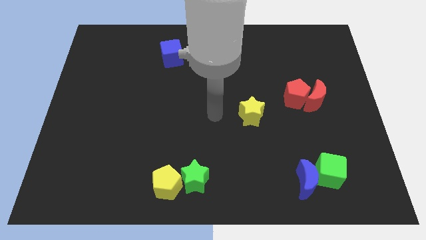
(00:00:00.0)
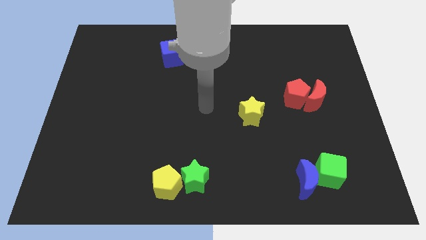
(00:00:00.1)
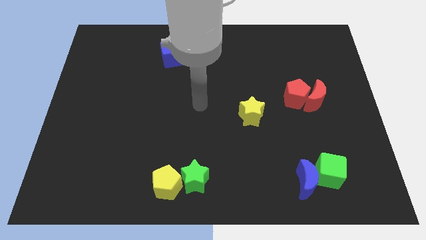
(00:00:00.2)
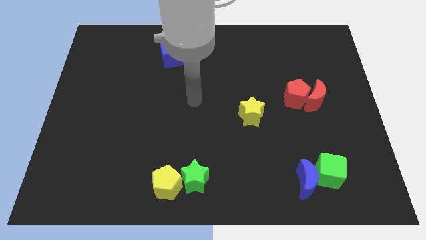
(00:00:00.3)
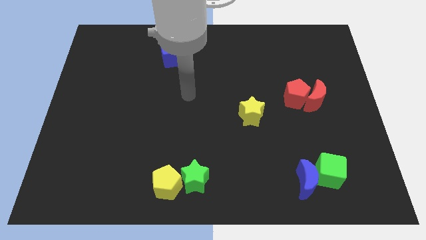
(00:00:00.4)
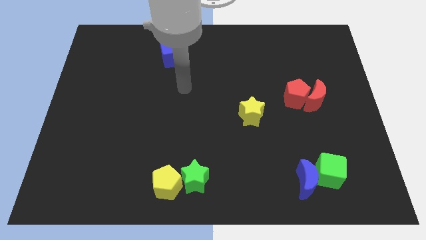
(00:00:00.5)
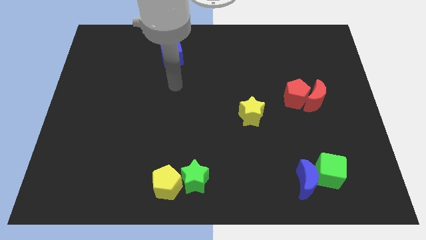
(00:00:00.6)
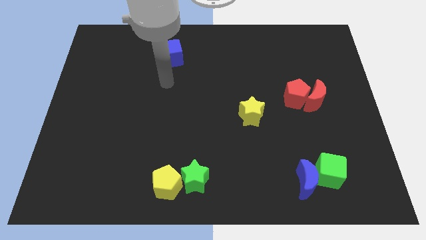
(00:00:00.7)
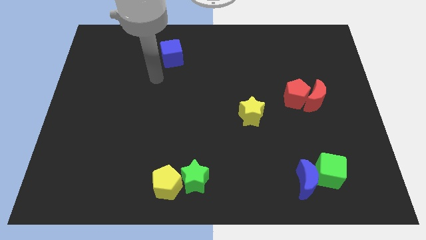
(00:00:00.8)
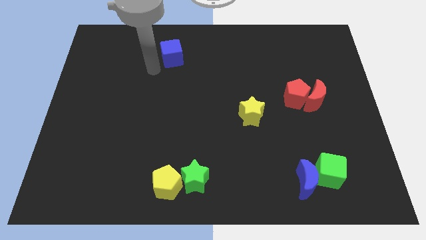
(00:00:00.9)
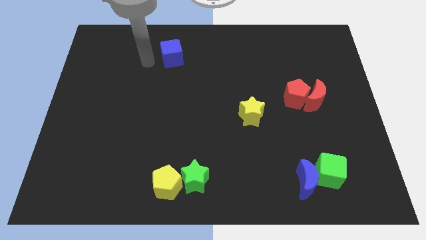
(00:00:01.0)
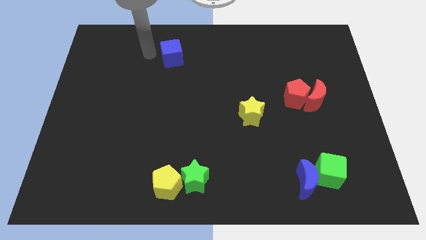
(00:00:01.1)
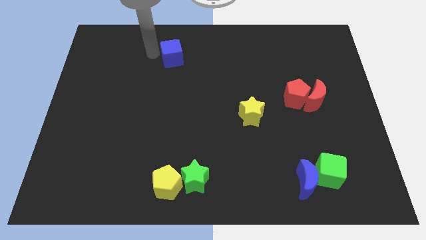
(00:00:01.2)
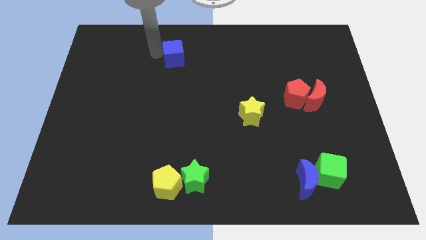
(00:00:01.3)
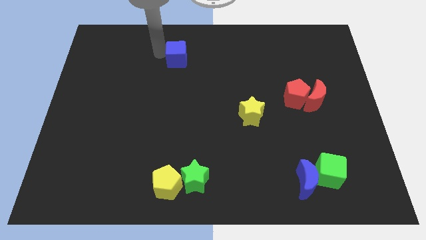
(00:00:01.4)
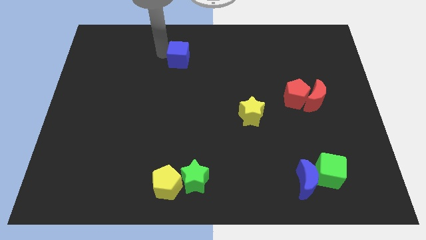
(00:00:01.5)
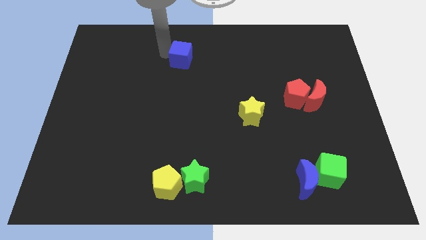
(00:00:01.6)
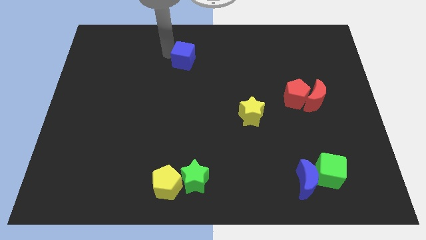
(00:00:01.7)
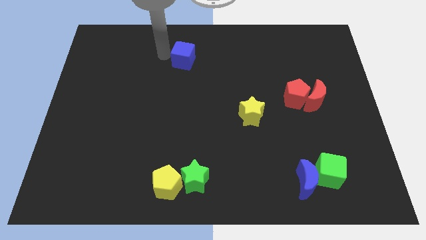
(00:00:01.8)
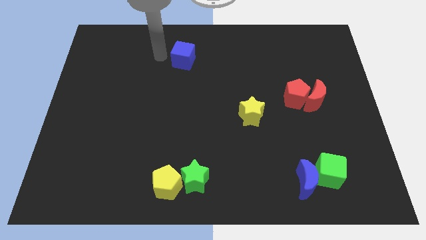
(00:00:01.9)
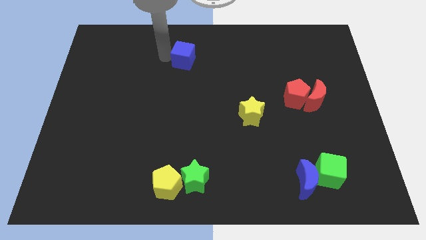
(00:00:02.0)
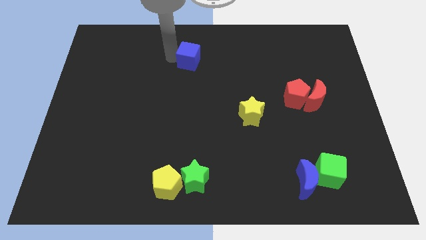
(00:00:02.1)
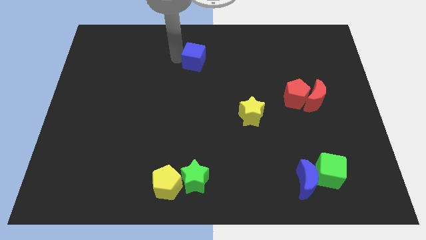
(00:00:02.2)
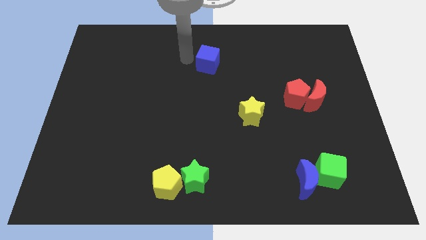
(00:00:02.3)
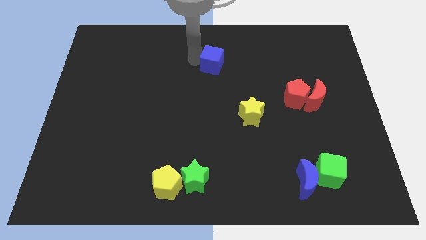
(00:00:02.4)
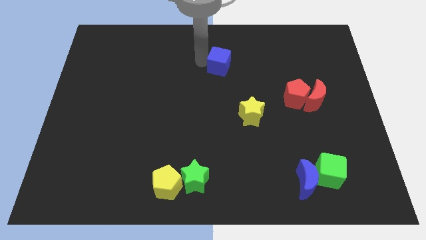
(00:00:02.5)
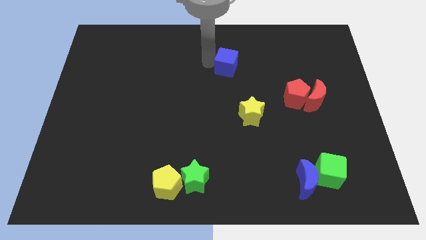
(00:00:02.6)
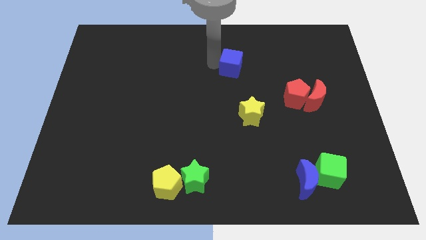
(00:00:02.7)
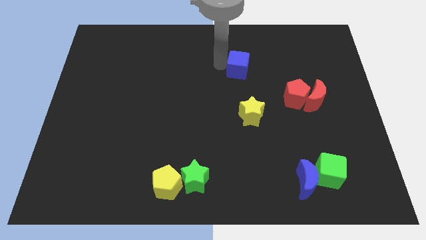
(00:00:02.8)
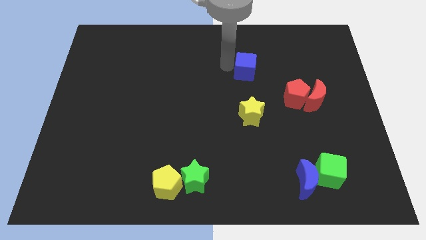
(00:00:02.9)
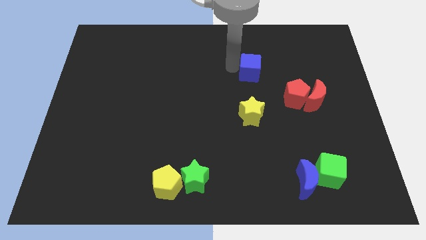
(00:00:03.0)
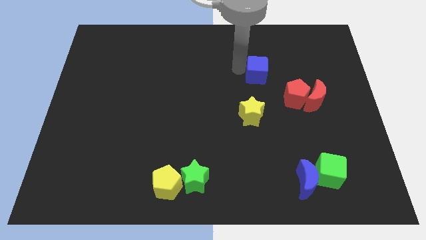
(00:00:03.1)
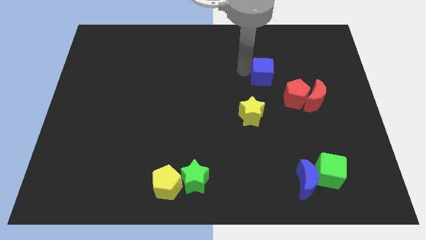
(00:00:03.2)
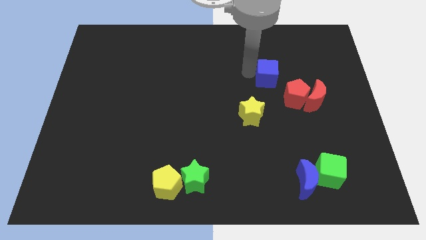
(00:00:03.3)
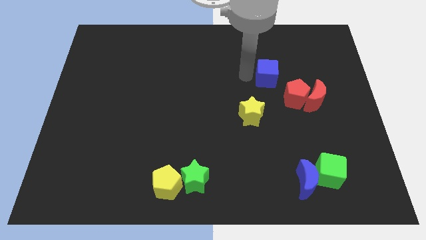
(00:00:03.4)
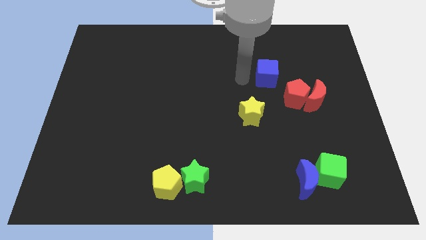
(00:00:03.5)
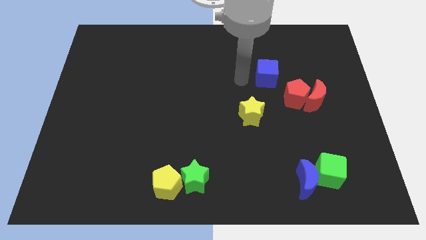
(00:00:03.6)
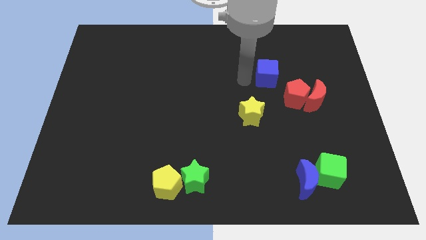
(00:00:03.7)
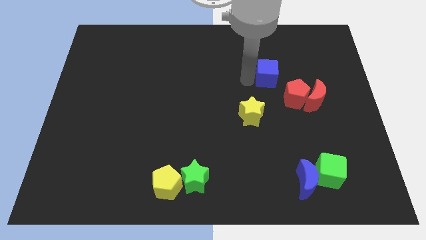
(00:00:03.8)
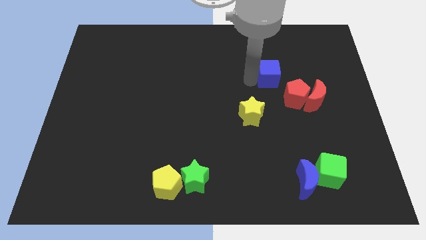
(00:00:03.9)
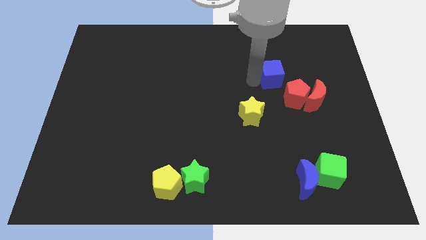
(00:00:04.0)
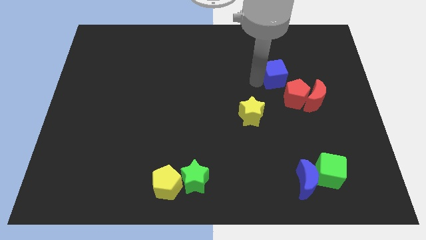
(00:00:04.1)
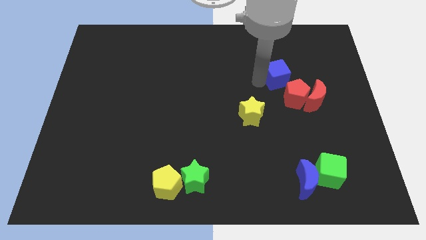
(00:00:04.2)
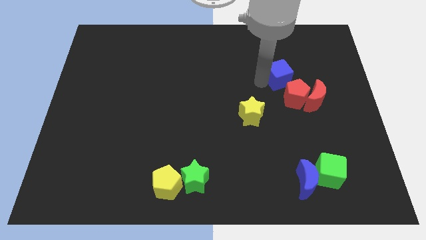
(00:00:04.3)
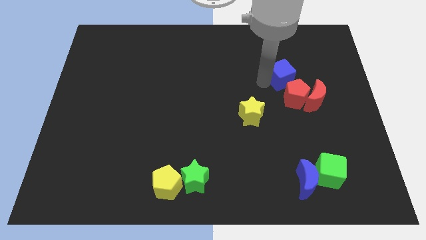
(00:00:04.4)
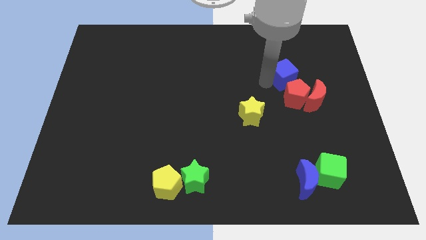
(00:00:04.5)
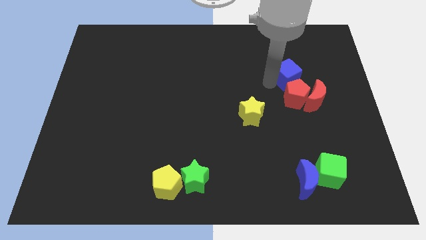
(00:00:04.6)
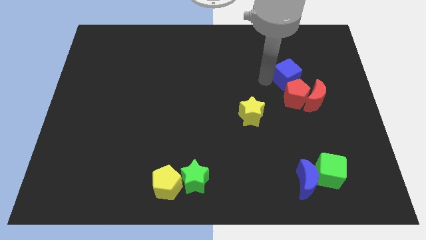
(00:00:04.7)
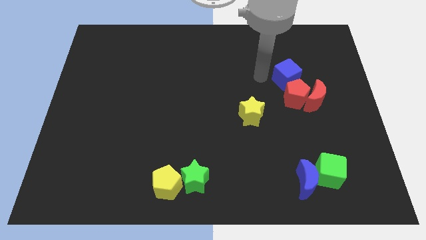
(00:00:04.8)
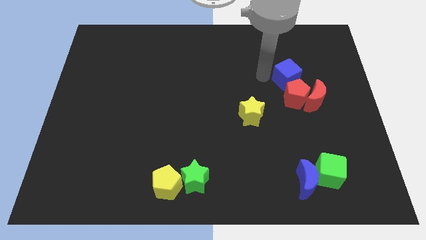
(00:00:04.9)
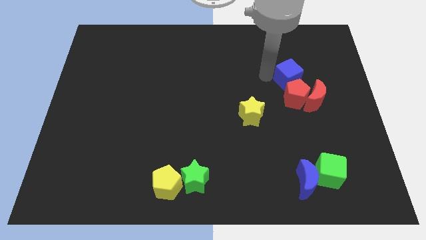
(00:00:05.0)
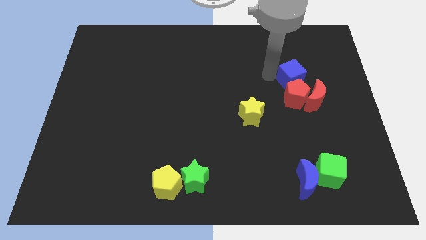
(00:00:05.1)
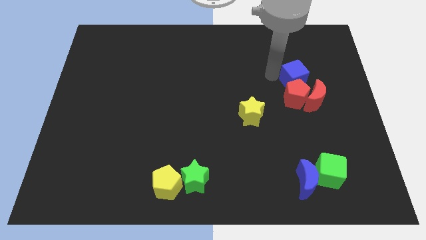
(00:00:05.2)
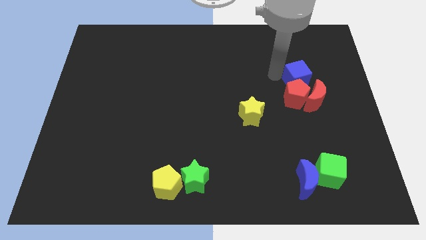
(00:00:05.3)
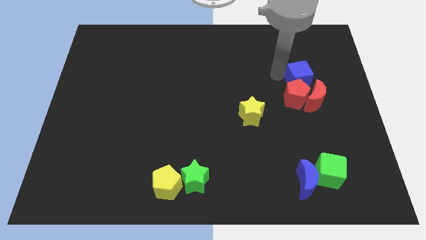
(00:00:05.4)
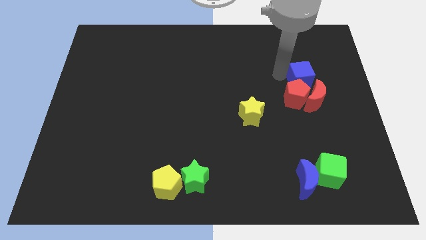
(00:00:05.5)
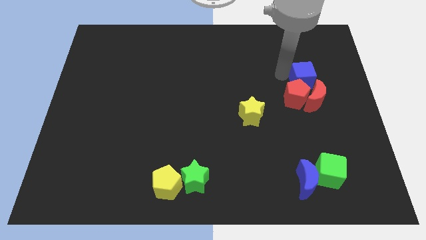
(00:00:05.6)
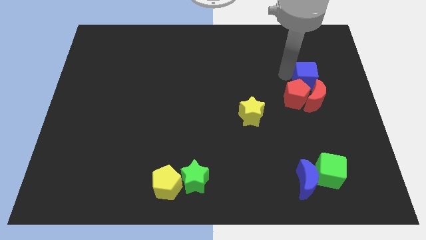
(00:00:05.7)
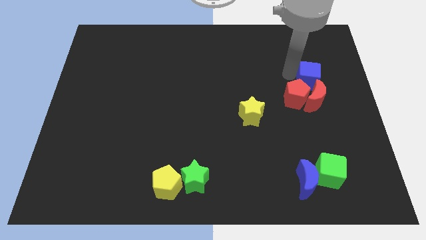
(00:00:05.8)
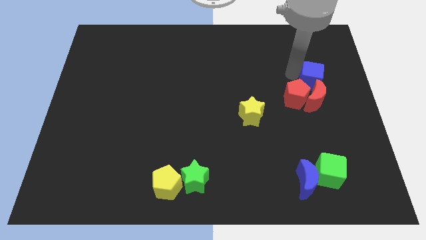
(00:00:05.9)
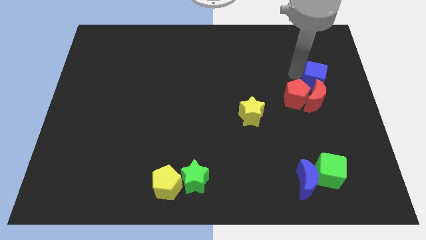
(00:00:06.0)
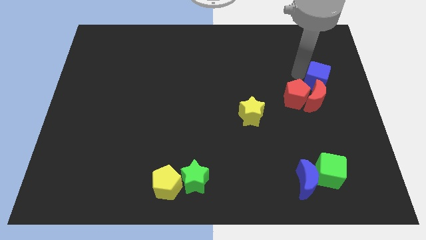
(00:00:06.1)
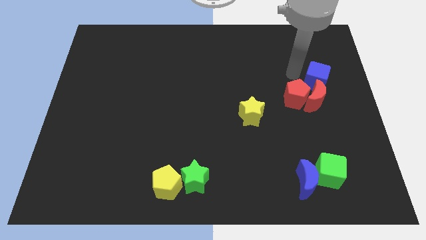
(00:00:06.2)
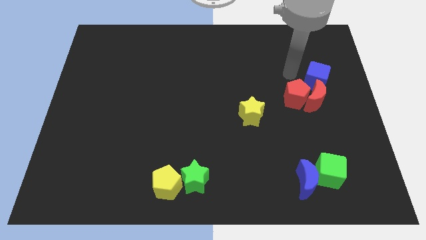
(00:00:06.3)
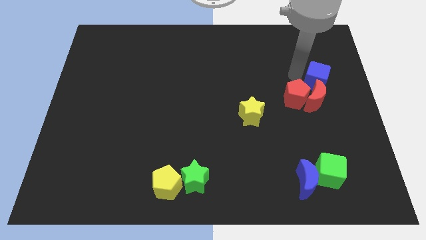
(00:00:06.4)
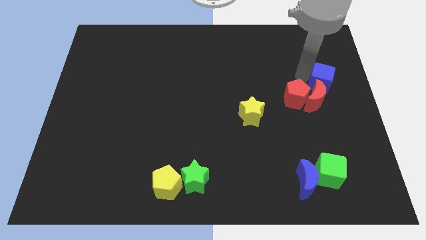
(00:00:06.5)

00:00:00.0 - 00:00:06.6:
push the blue cube to the right side
